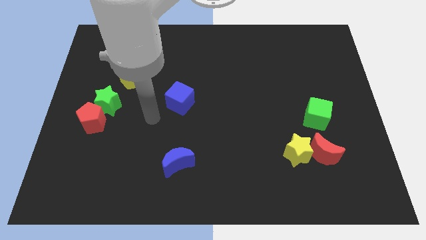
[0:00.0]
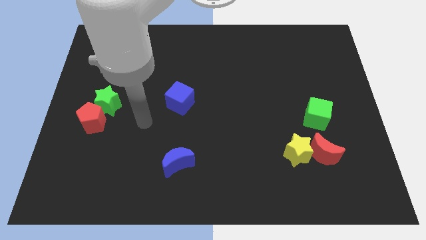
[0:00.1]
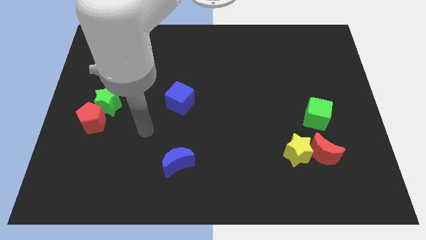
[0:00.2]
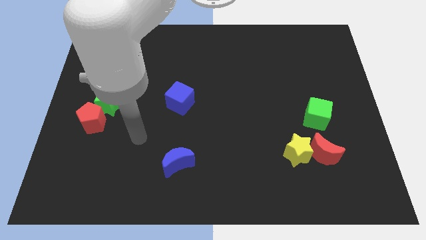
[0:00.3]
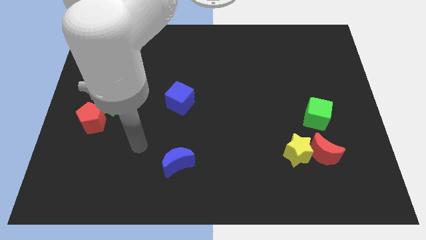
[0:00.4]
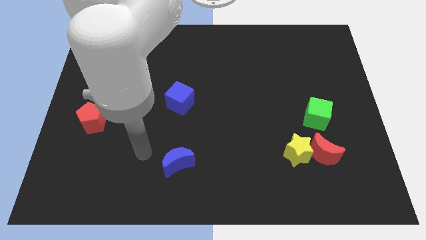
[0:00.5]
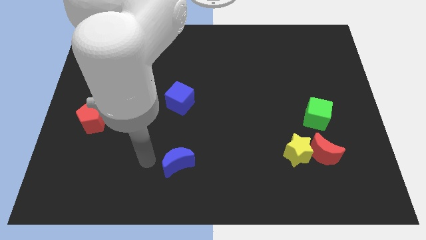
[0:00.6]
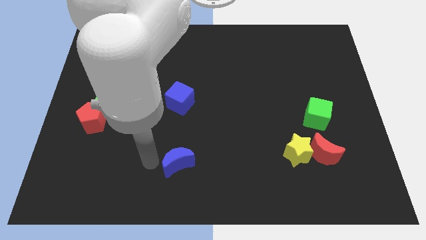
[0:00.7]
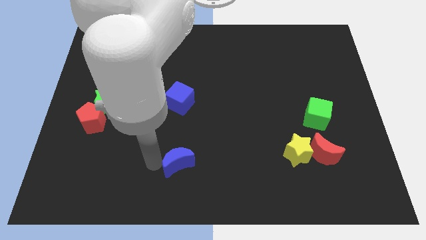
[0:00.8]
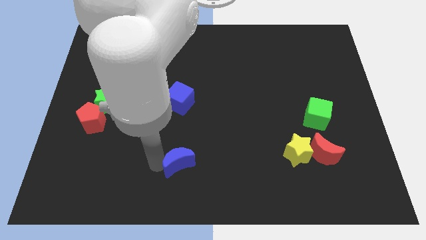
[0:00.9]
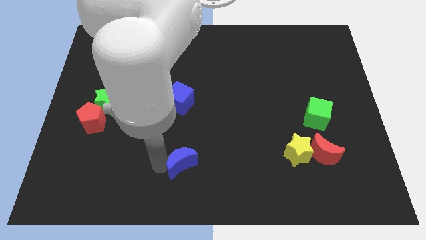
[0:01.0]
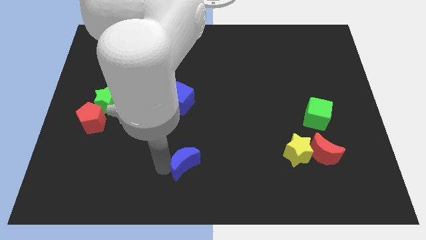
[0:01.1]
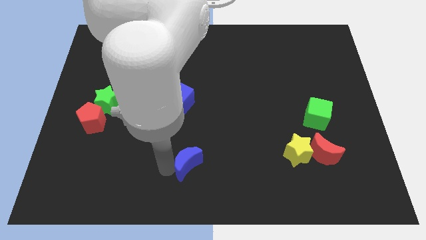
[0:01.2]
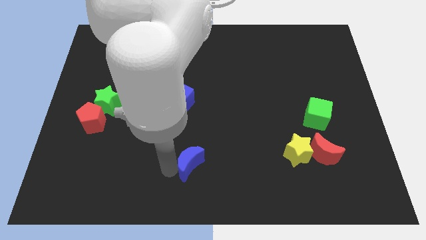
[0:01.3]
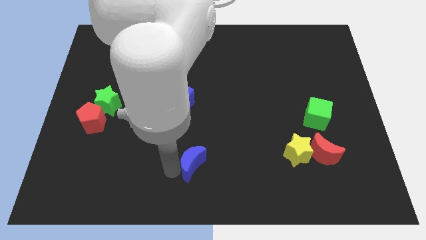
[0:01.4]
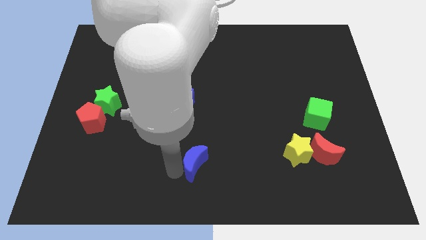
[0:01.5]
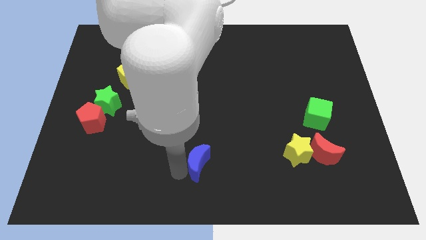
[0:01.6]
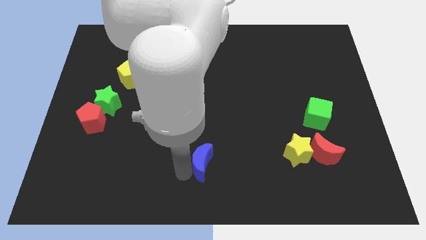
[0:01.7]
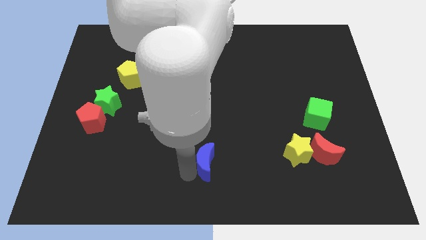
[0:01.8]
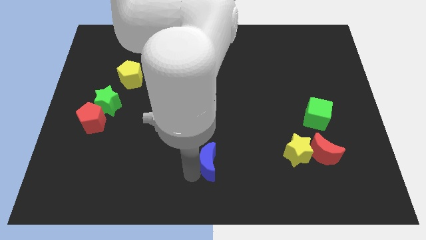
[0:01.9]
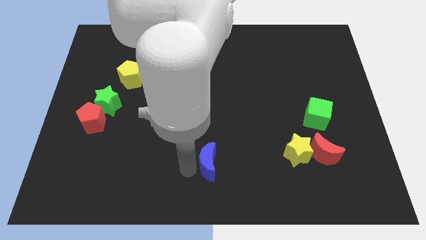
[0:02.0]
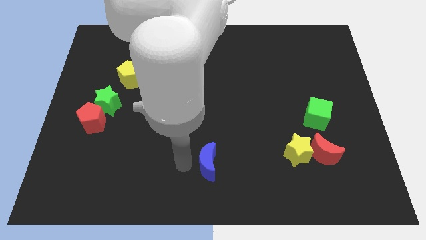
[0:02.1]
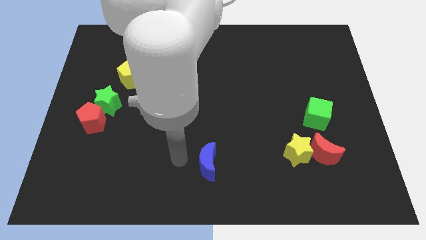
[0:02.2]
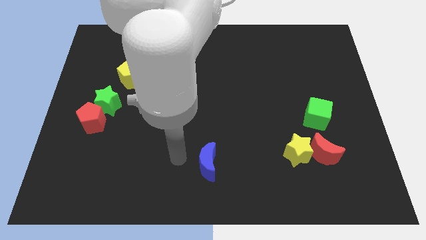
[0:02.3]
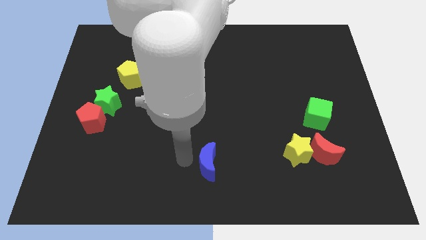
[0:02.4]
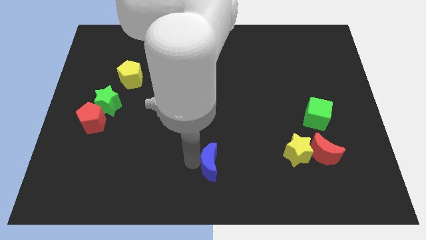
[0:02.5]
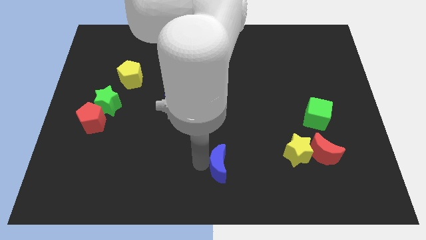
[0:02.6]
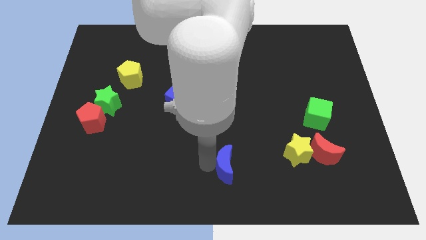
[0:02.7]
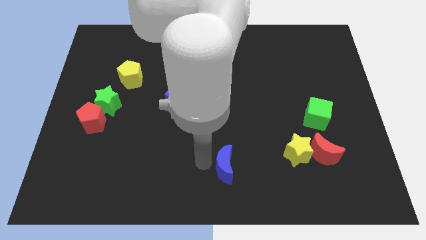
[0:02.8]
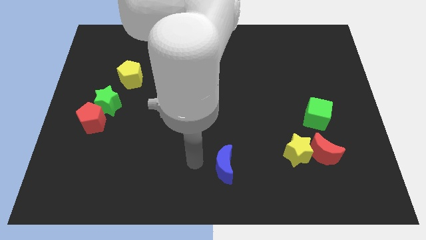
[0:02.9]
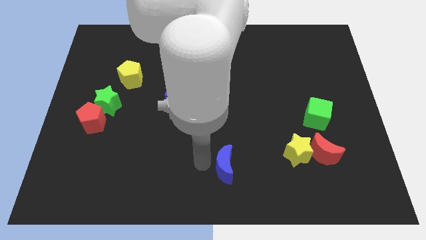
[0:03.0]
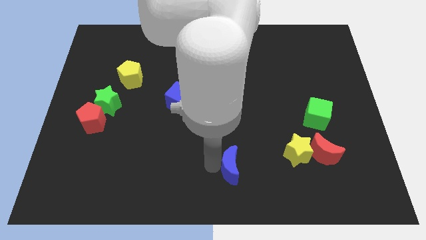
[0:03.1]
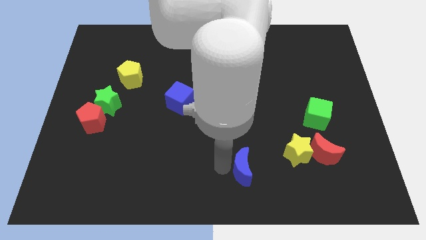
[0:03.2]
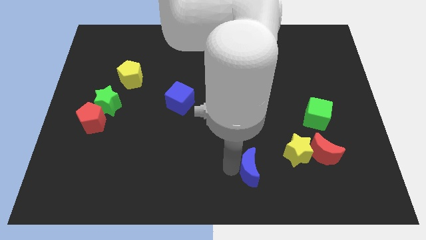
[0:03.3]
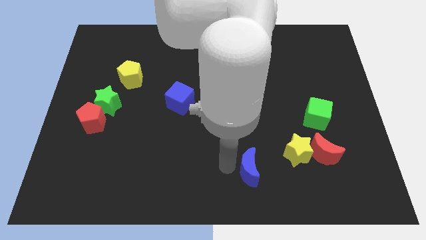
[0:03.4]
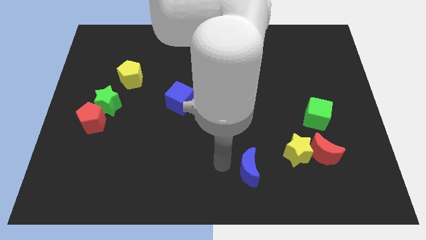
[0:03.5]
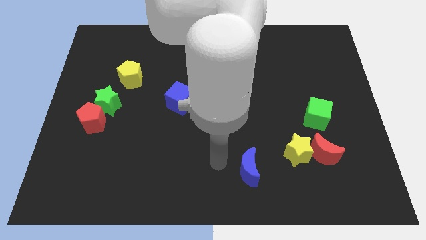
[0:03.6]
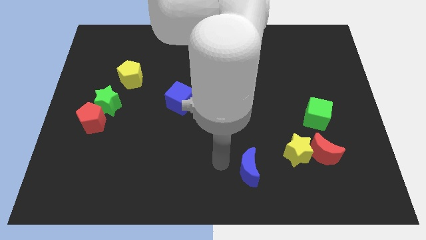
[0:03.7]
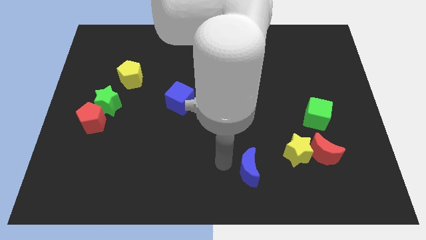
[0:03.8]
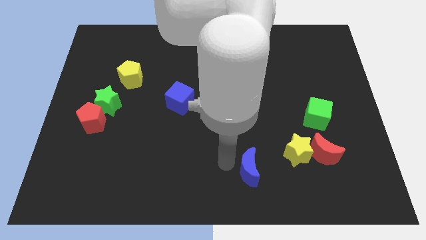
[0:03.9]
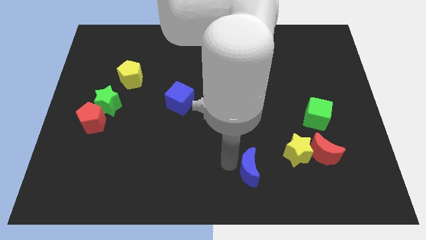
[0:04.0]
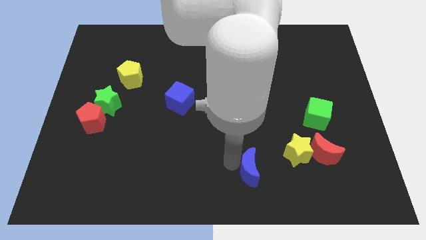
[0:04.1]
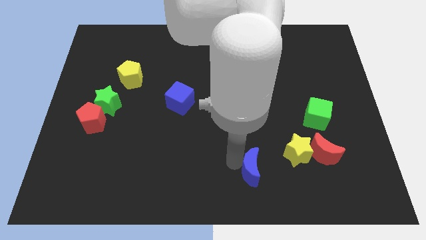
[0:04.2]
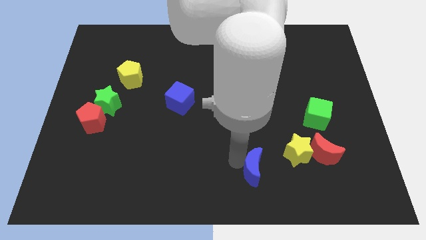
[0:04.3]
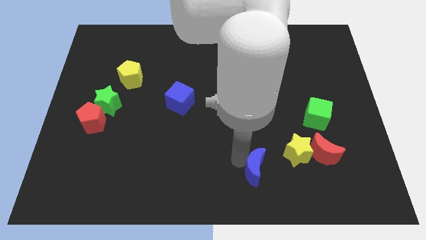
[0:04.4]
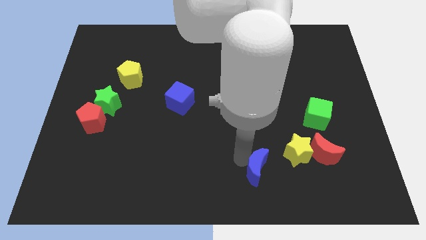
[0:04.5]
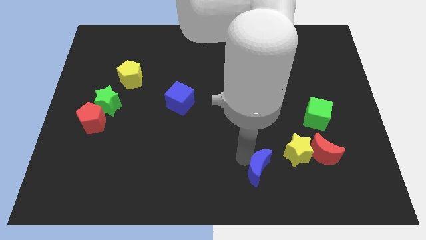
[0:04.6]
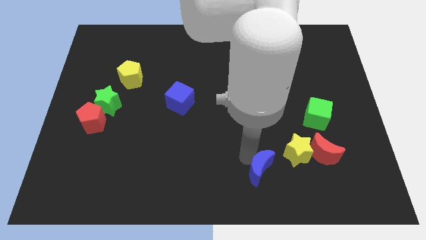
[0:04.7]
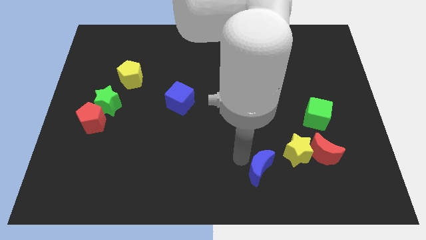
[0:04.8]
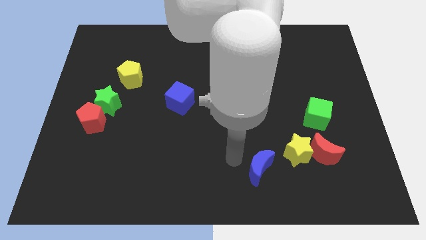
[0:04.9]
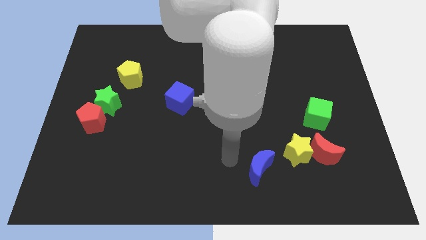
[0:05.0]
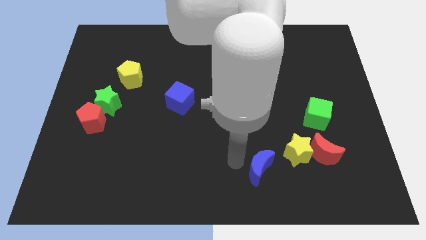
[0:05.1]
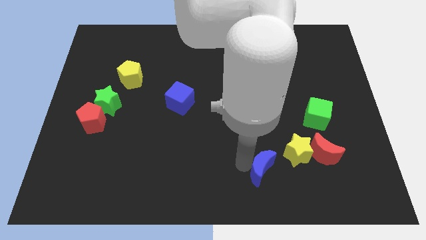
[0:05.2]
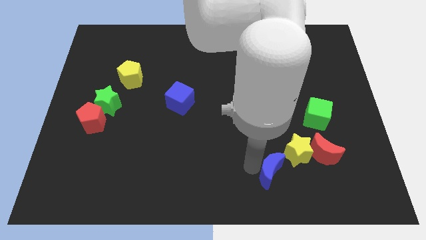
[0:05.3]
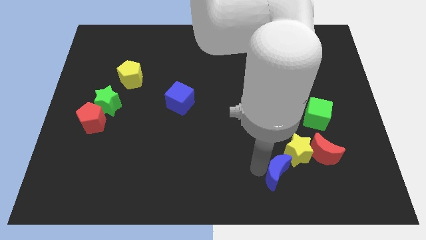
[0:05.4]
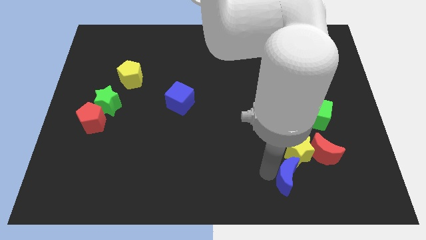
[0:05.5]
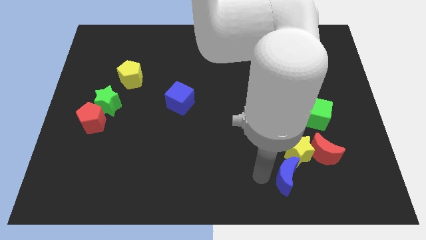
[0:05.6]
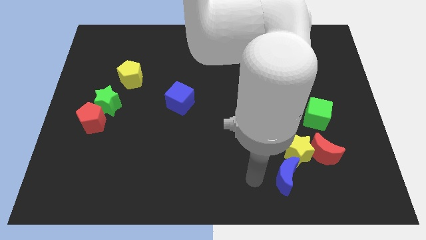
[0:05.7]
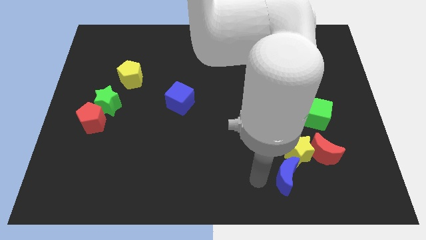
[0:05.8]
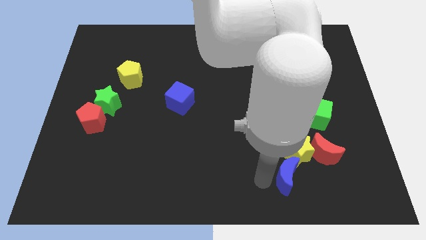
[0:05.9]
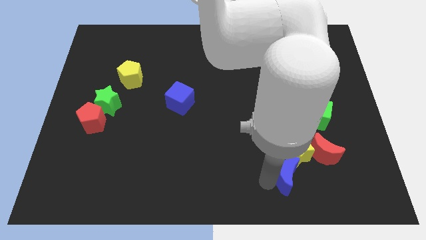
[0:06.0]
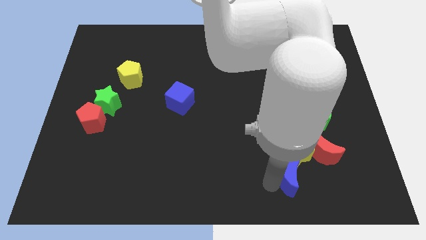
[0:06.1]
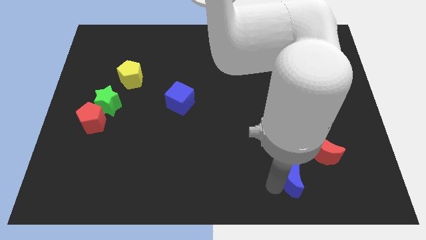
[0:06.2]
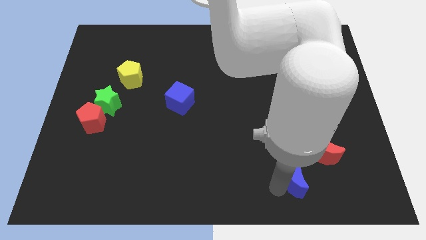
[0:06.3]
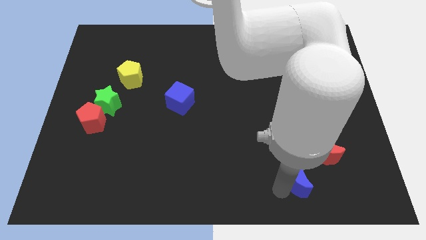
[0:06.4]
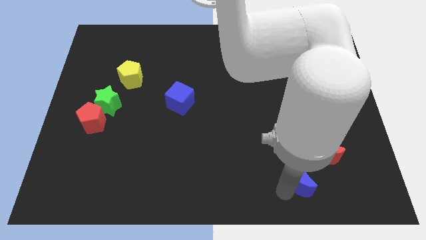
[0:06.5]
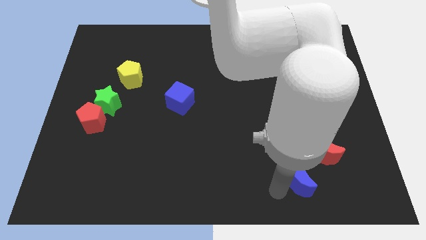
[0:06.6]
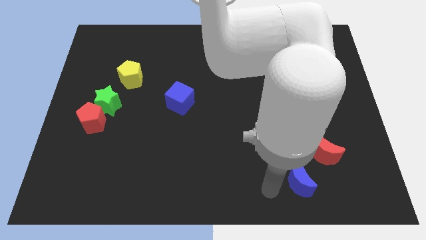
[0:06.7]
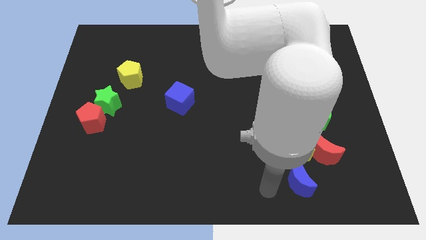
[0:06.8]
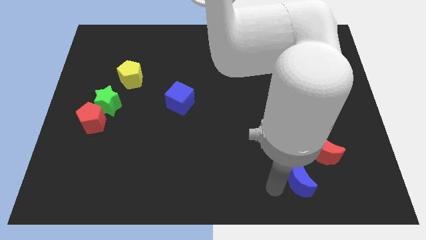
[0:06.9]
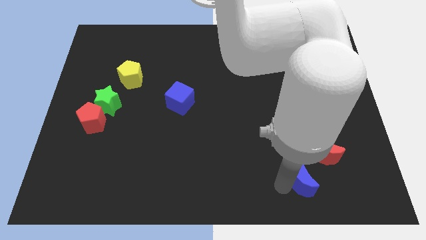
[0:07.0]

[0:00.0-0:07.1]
push the blue moon diagonally down and to the right of the yellow star

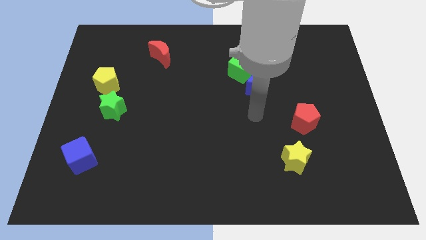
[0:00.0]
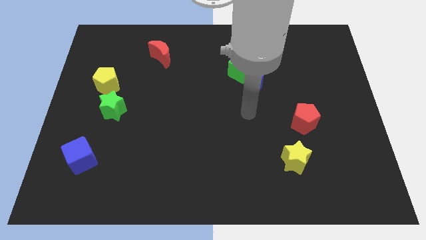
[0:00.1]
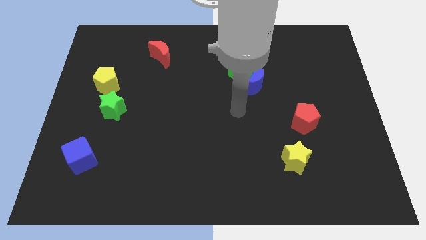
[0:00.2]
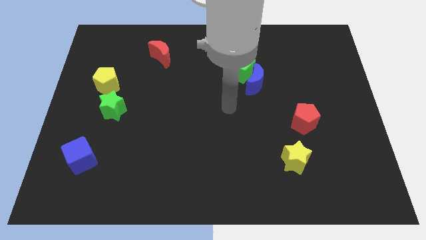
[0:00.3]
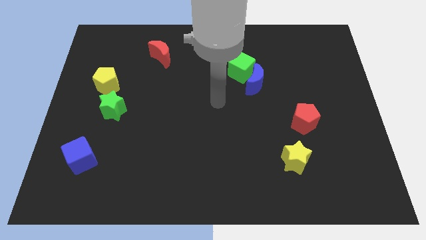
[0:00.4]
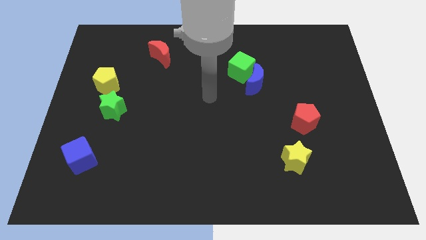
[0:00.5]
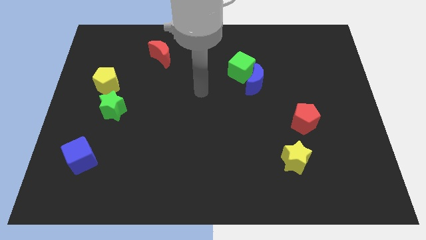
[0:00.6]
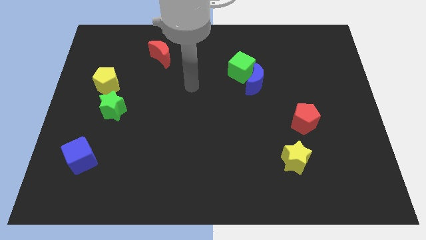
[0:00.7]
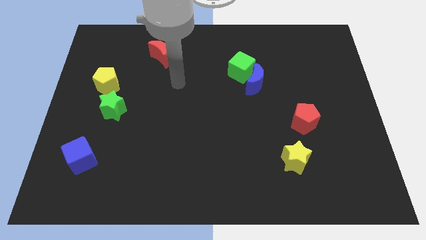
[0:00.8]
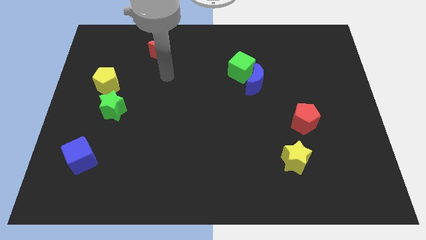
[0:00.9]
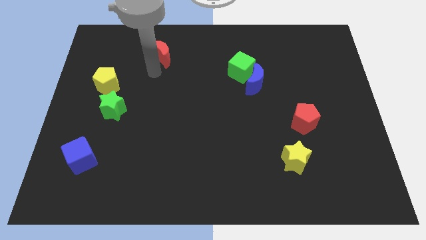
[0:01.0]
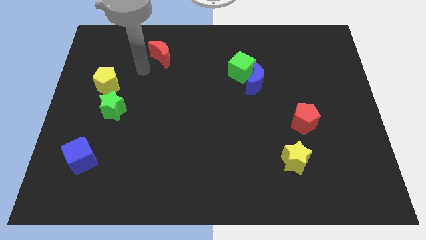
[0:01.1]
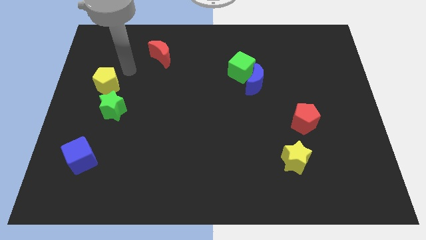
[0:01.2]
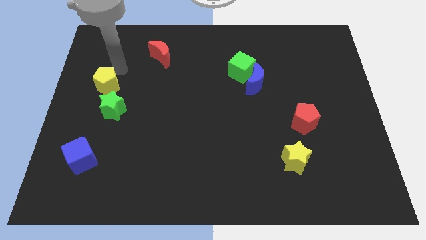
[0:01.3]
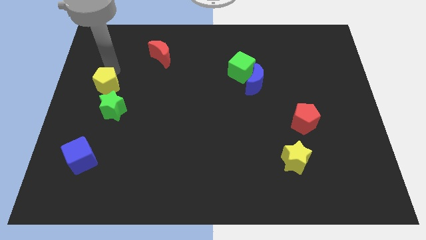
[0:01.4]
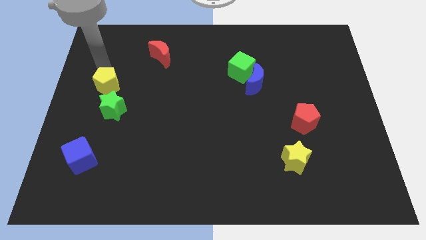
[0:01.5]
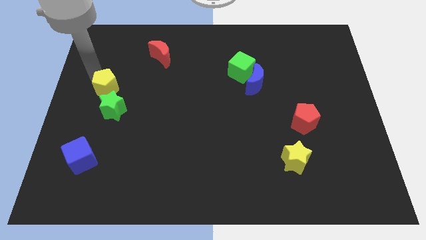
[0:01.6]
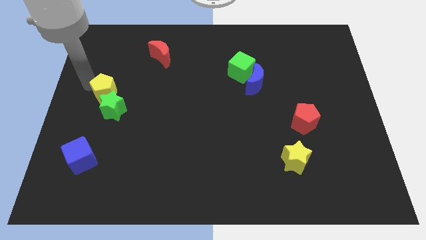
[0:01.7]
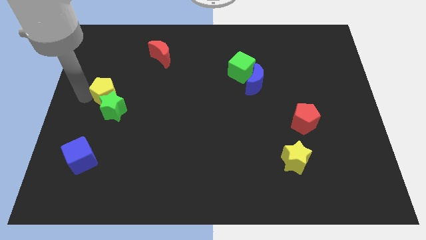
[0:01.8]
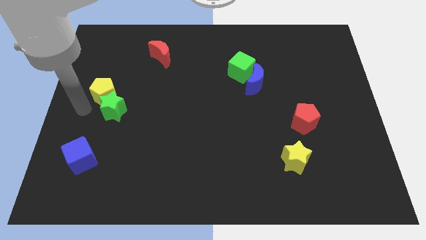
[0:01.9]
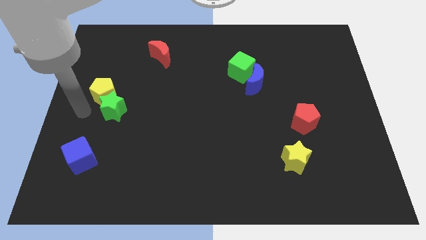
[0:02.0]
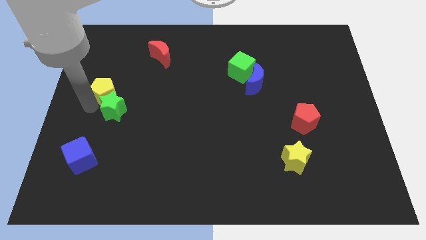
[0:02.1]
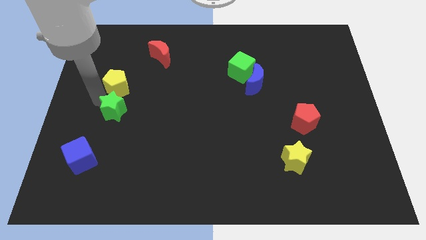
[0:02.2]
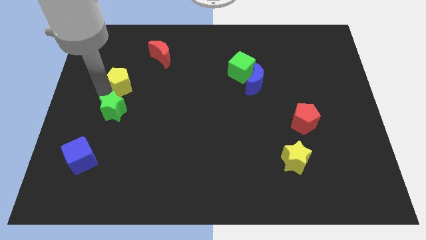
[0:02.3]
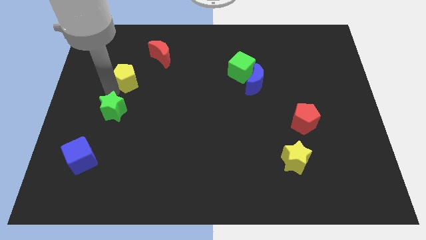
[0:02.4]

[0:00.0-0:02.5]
put the yellow pentagon diagonally down and to the left of the red moon
